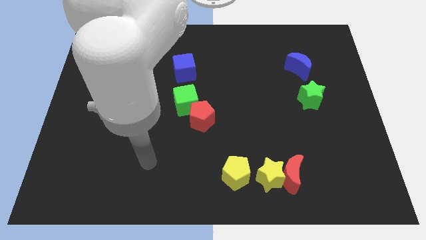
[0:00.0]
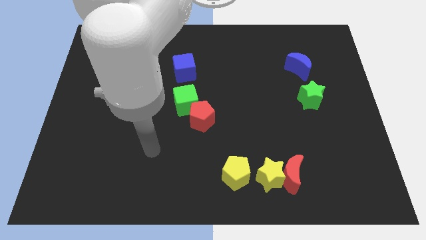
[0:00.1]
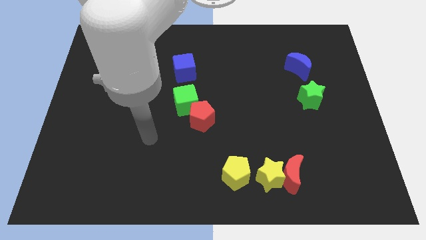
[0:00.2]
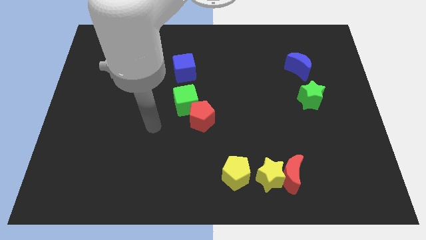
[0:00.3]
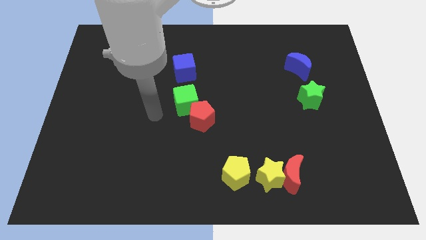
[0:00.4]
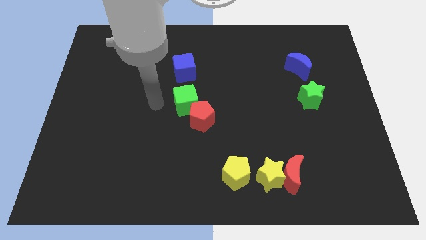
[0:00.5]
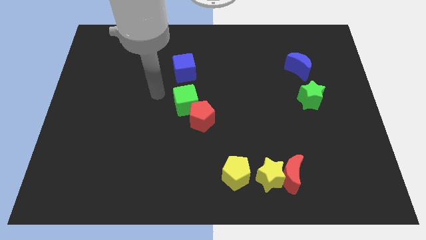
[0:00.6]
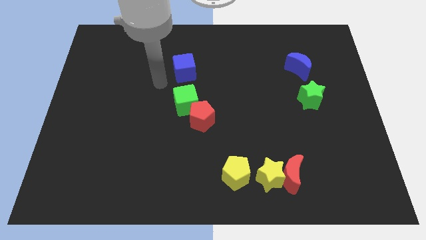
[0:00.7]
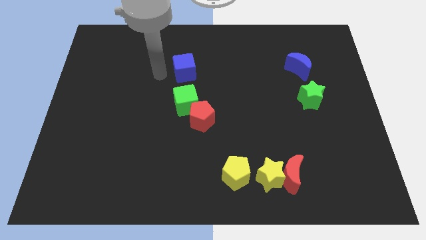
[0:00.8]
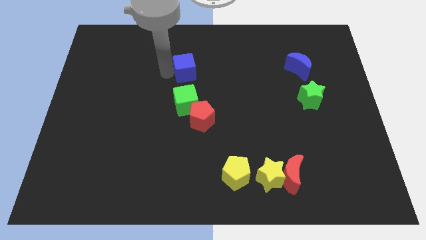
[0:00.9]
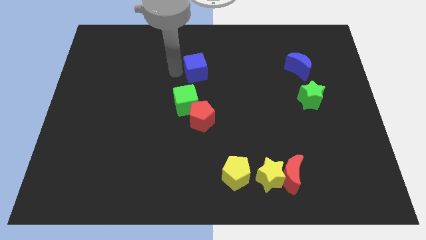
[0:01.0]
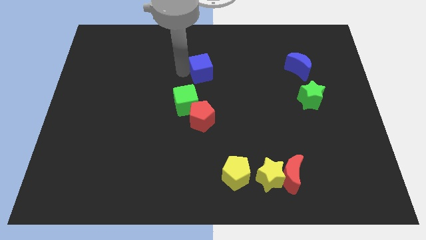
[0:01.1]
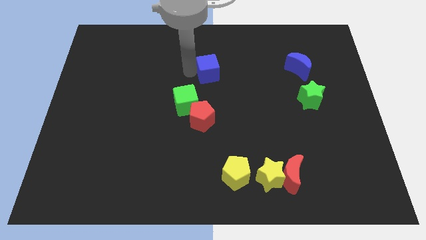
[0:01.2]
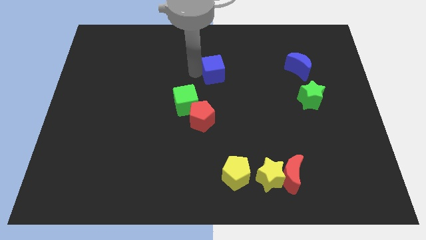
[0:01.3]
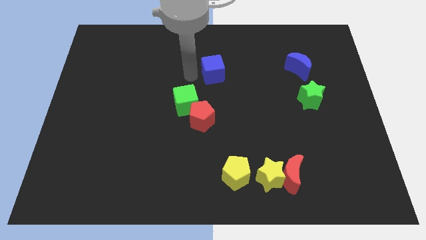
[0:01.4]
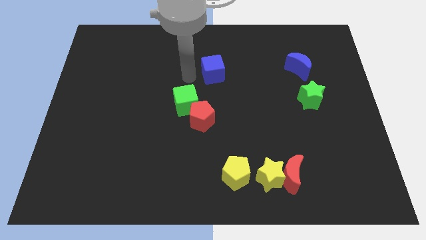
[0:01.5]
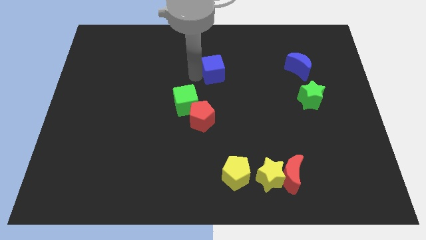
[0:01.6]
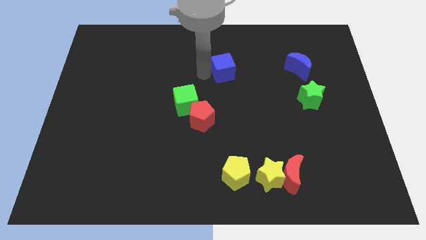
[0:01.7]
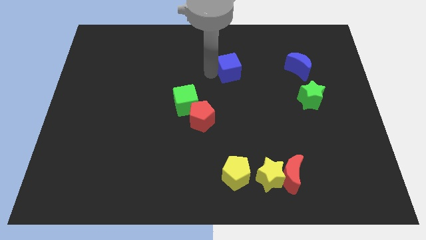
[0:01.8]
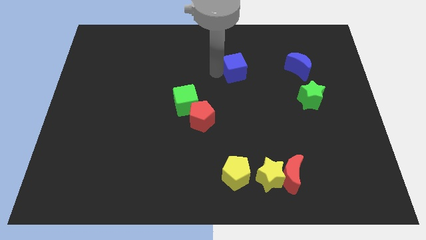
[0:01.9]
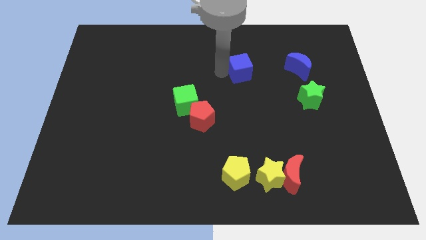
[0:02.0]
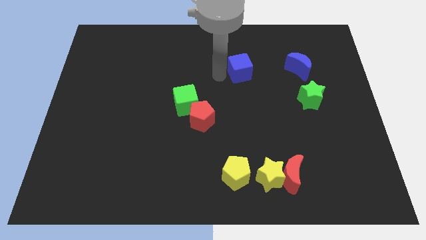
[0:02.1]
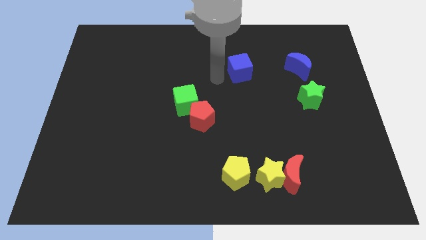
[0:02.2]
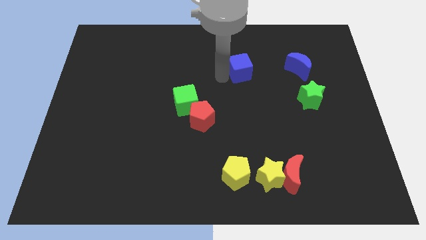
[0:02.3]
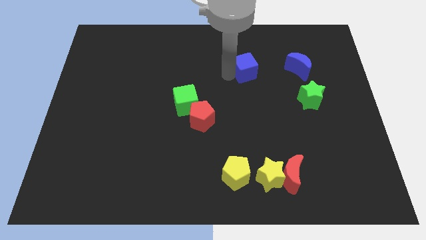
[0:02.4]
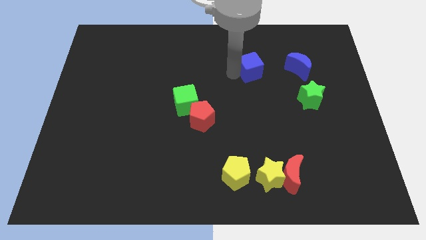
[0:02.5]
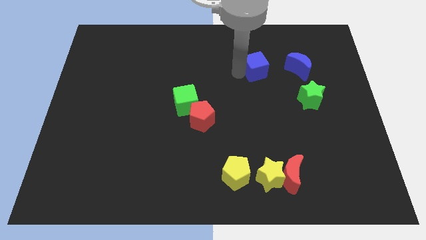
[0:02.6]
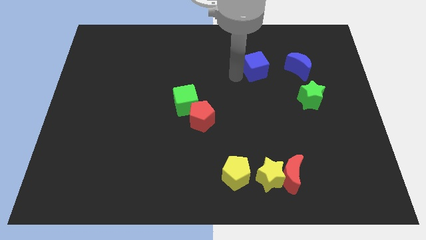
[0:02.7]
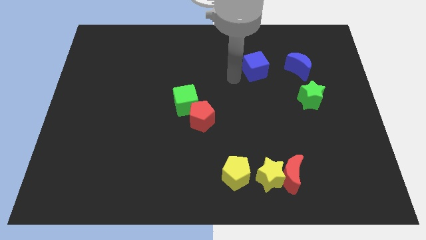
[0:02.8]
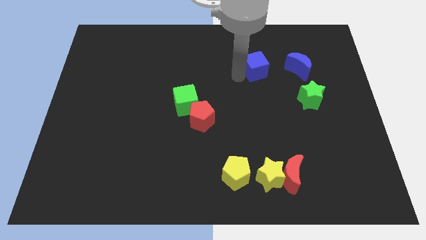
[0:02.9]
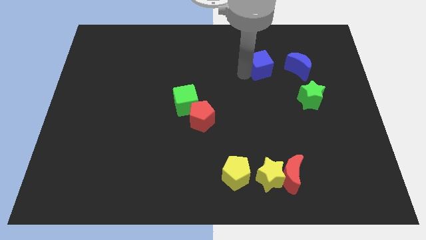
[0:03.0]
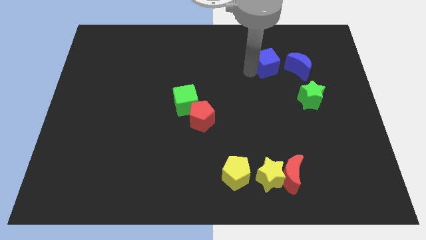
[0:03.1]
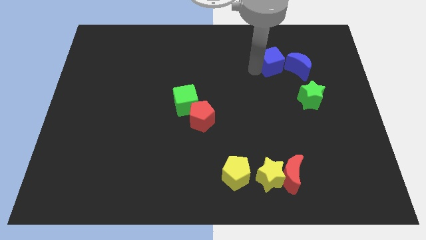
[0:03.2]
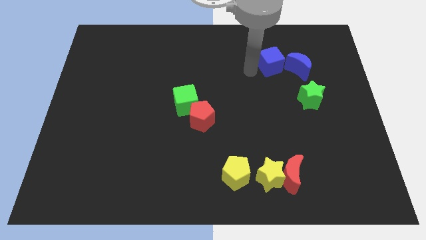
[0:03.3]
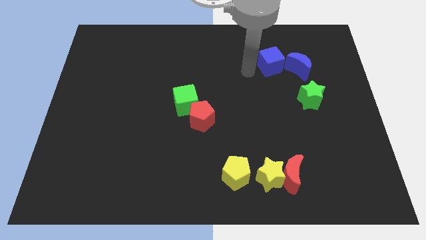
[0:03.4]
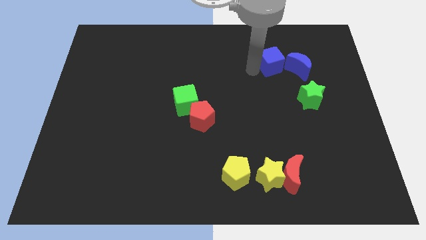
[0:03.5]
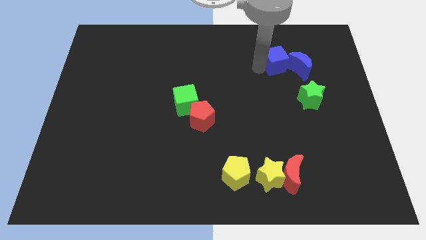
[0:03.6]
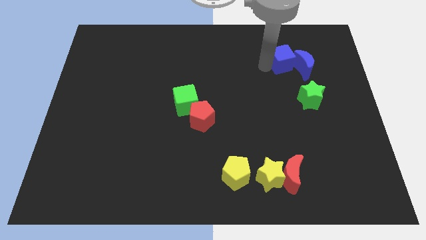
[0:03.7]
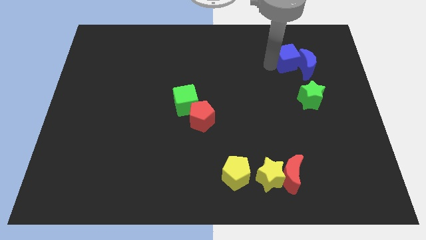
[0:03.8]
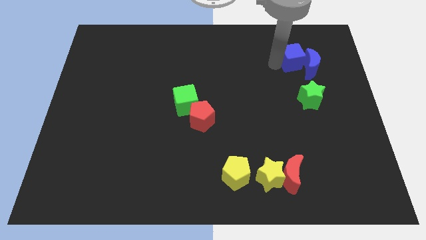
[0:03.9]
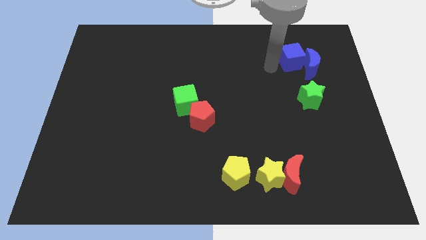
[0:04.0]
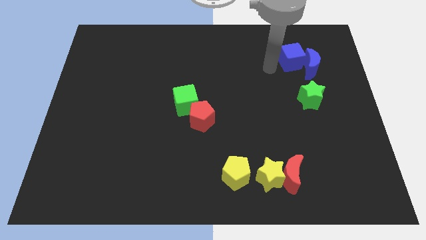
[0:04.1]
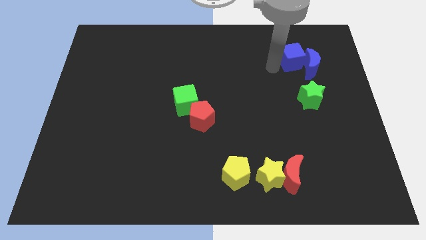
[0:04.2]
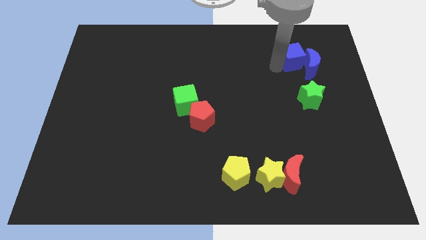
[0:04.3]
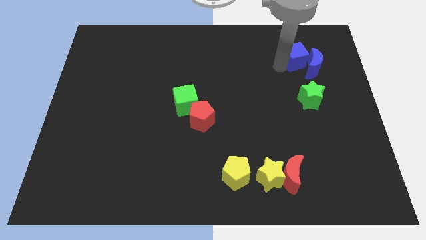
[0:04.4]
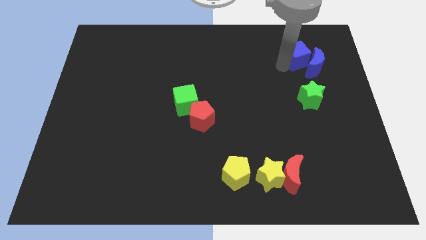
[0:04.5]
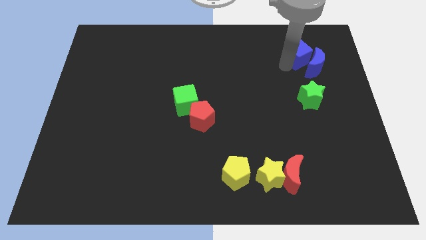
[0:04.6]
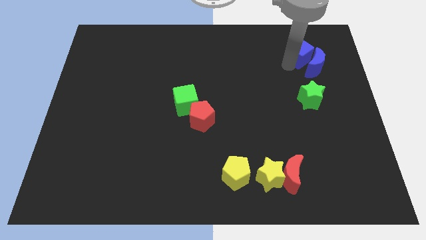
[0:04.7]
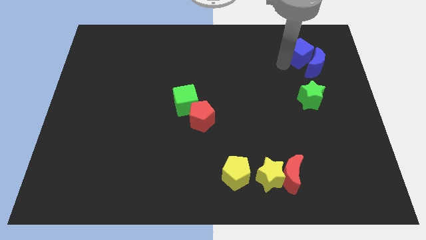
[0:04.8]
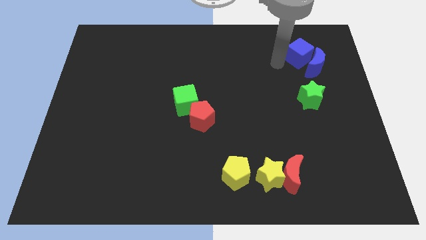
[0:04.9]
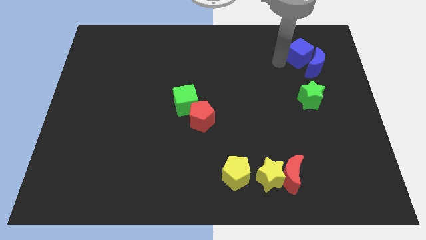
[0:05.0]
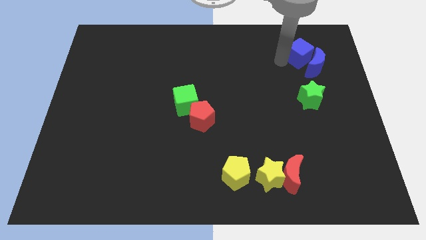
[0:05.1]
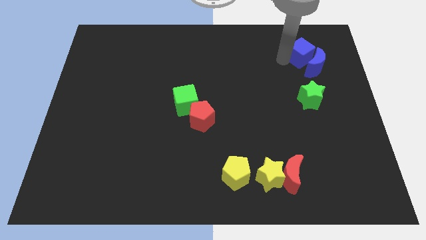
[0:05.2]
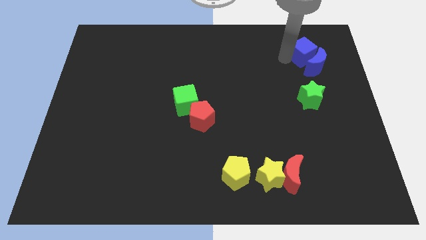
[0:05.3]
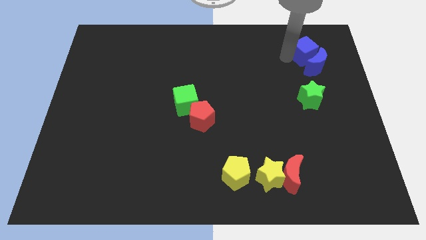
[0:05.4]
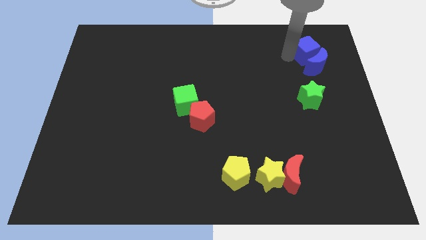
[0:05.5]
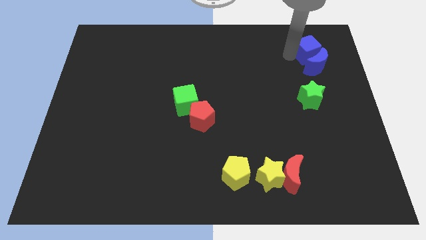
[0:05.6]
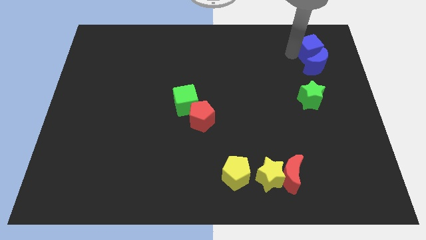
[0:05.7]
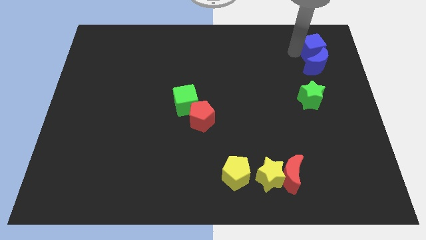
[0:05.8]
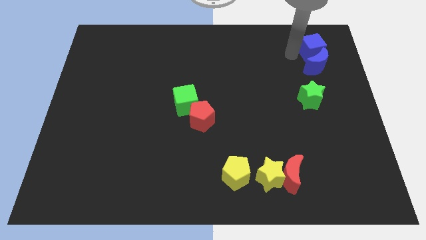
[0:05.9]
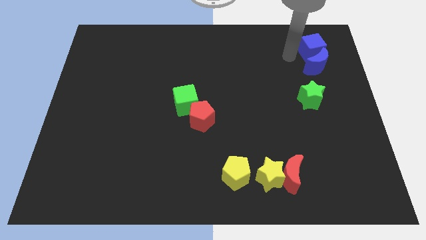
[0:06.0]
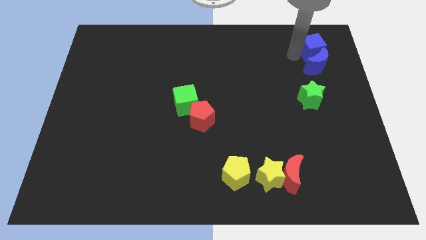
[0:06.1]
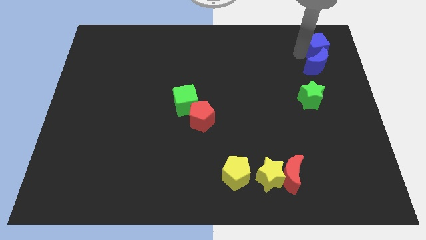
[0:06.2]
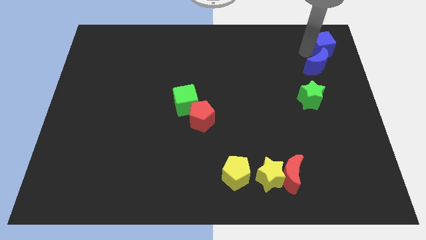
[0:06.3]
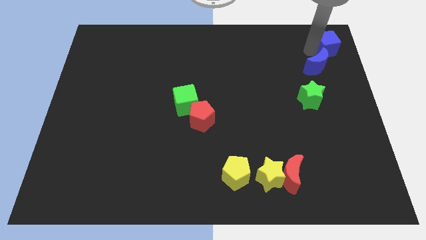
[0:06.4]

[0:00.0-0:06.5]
move the blue cube to the upper right corner

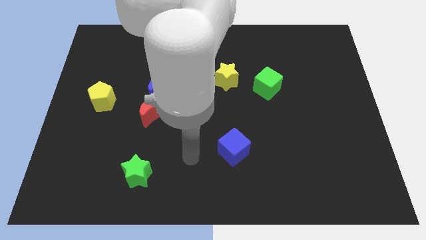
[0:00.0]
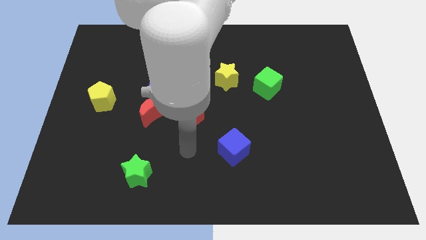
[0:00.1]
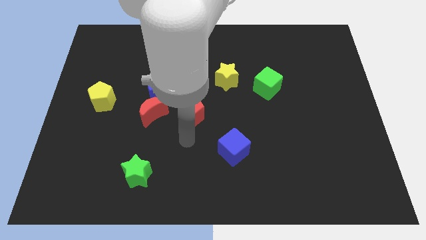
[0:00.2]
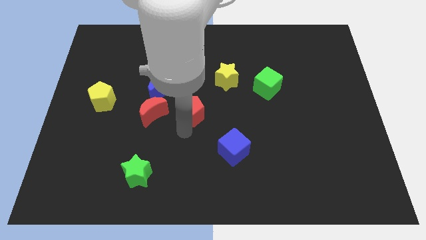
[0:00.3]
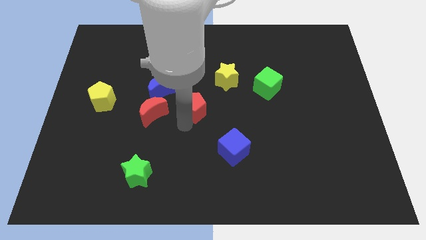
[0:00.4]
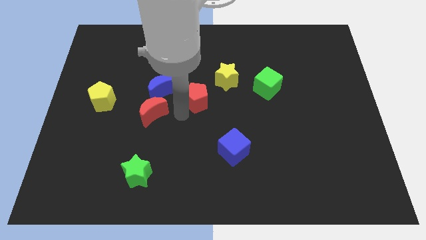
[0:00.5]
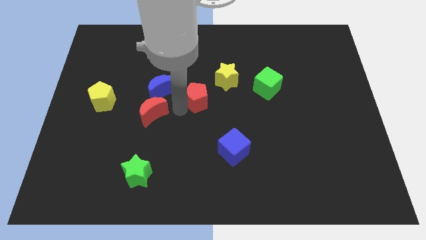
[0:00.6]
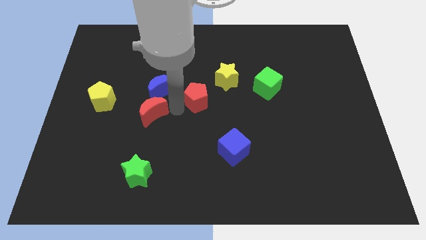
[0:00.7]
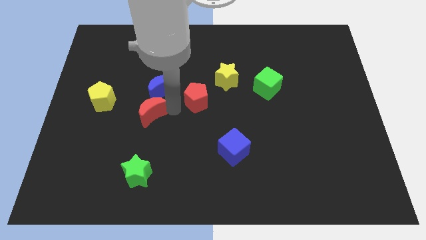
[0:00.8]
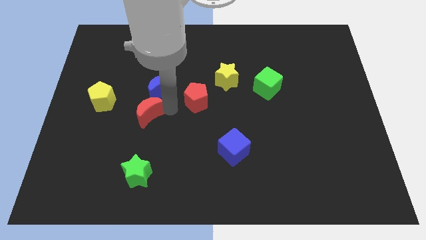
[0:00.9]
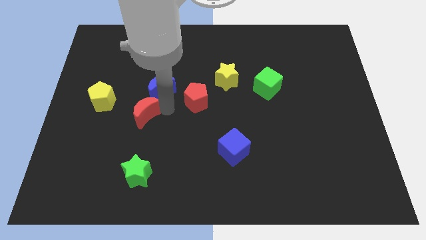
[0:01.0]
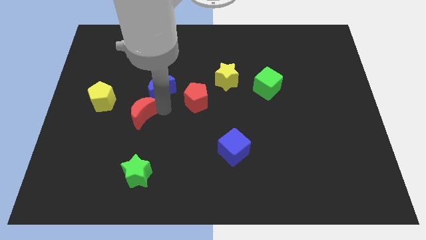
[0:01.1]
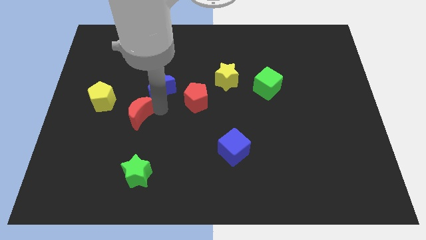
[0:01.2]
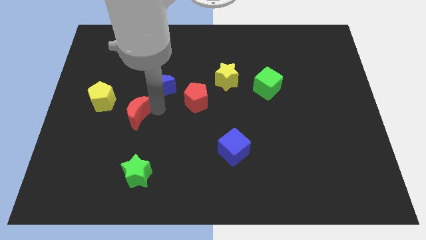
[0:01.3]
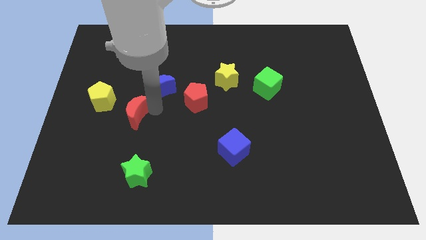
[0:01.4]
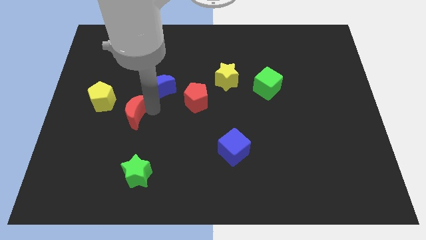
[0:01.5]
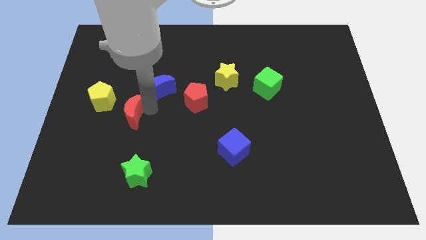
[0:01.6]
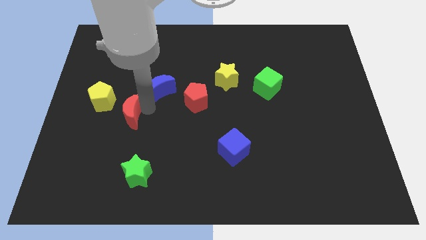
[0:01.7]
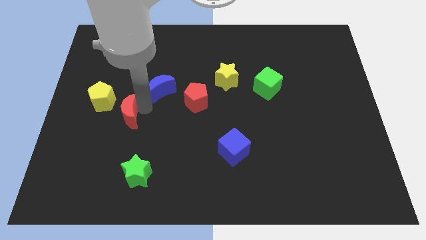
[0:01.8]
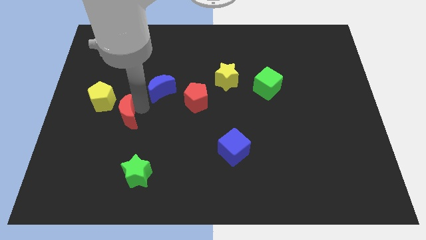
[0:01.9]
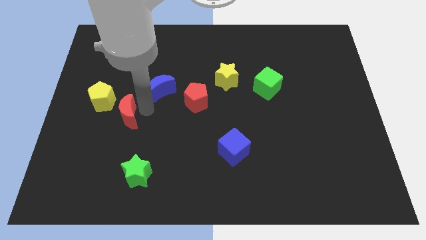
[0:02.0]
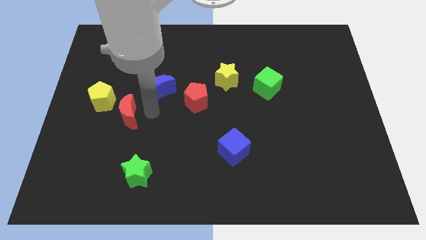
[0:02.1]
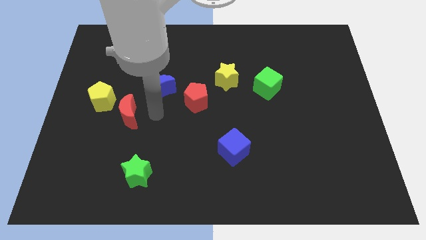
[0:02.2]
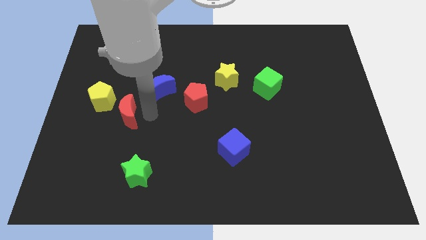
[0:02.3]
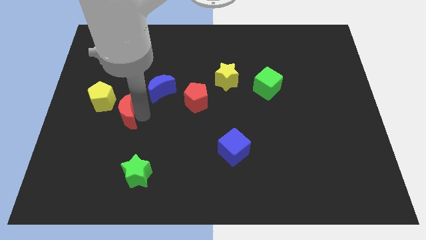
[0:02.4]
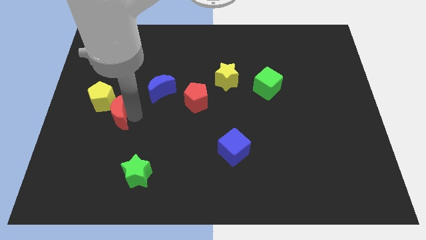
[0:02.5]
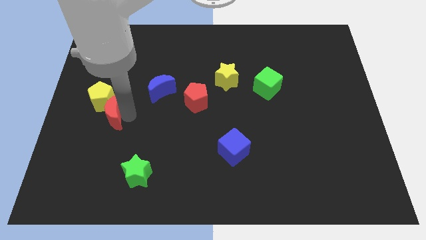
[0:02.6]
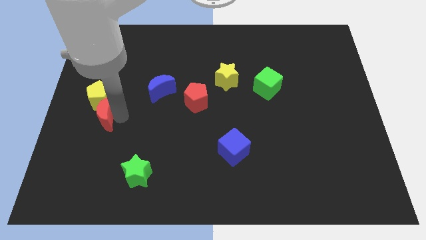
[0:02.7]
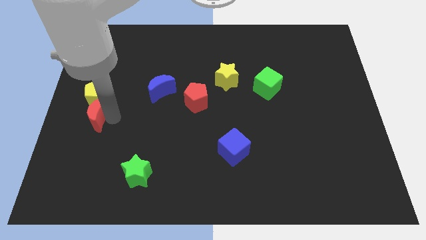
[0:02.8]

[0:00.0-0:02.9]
push the red moon to the center left
